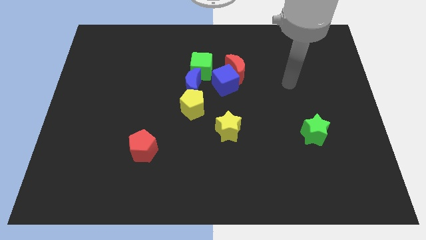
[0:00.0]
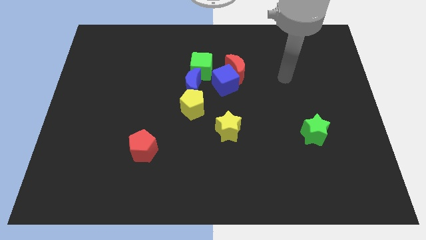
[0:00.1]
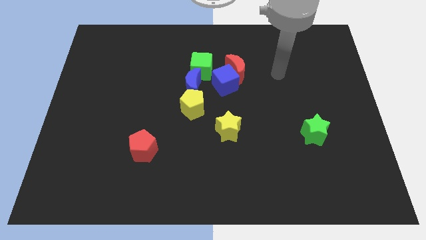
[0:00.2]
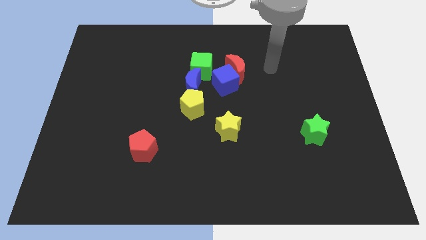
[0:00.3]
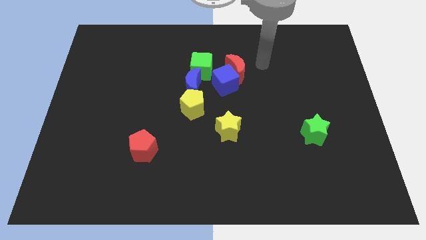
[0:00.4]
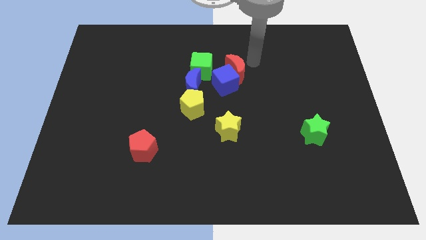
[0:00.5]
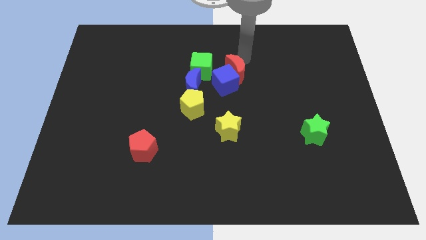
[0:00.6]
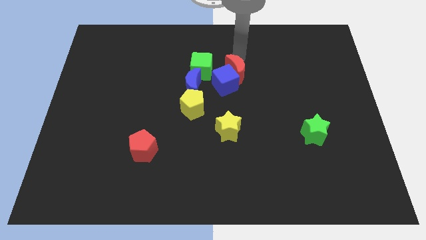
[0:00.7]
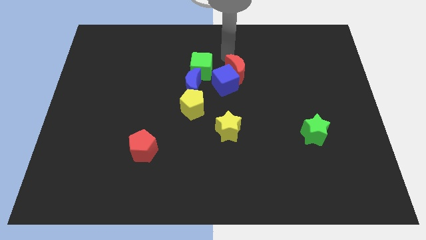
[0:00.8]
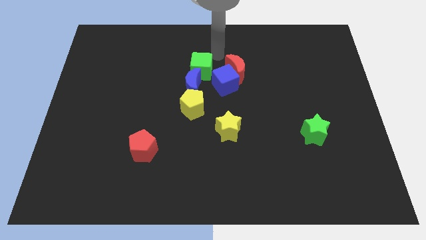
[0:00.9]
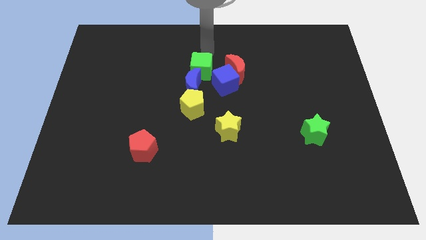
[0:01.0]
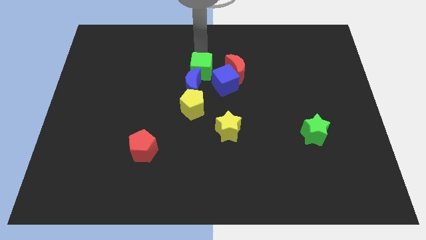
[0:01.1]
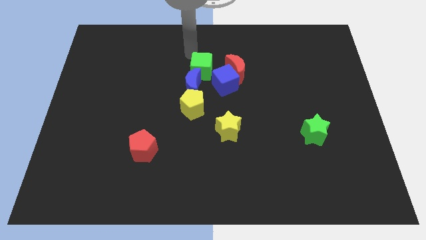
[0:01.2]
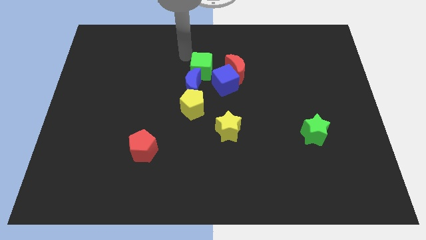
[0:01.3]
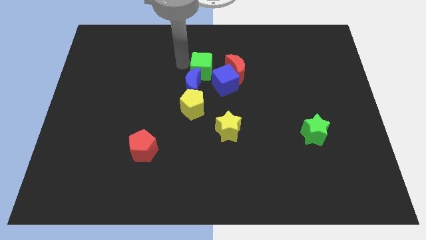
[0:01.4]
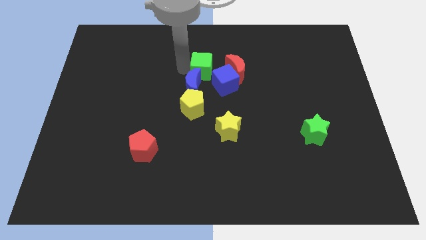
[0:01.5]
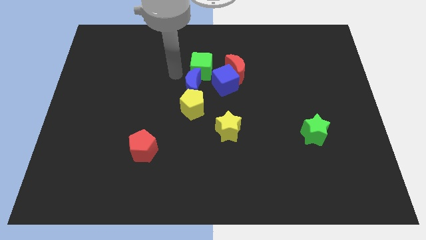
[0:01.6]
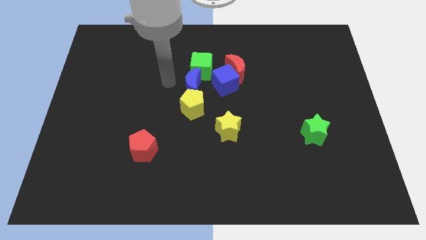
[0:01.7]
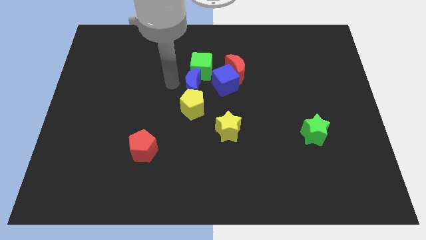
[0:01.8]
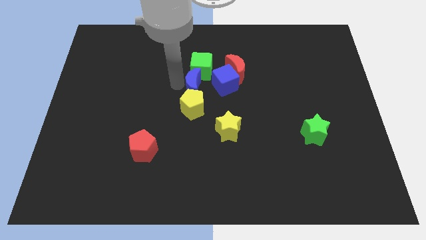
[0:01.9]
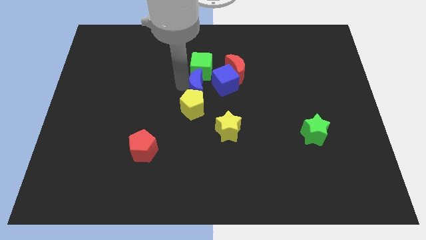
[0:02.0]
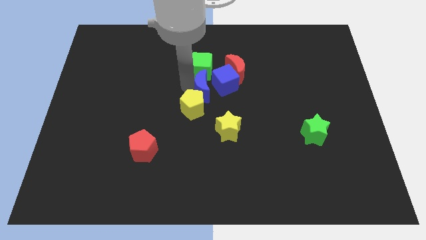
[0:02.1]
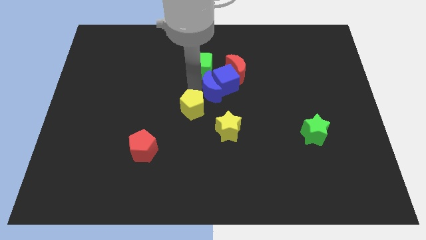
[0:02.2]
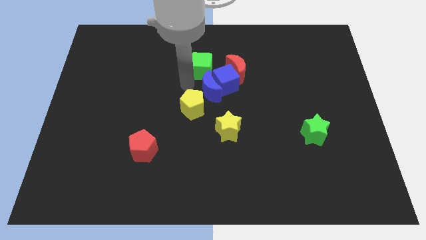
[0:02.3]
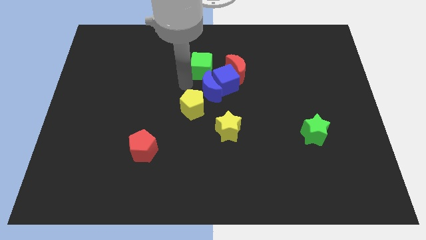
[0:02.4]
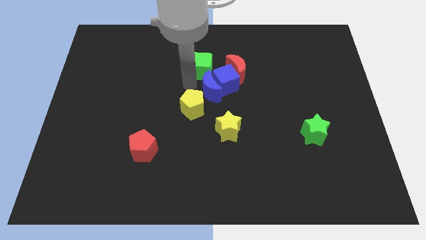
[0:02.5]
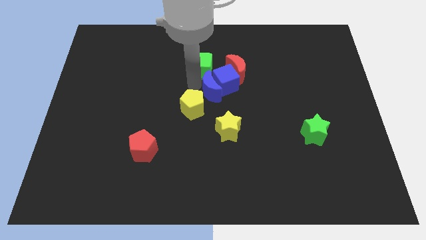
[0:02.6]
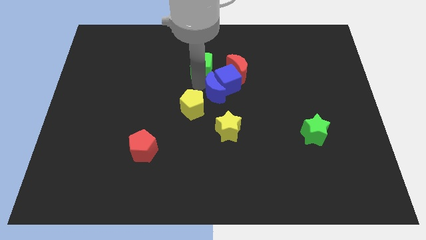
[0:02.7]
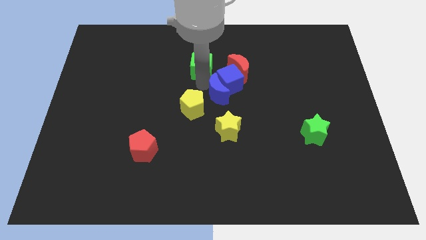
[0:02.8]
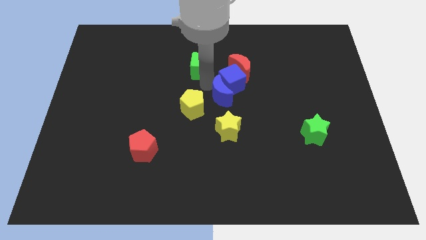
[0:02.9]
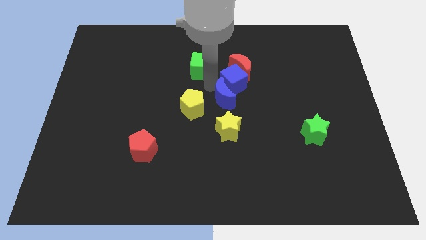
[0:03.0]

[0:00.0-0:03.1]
move the blue moon right somewhat

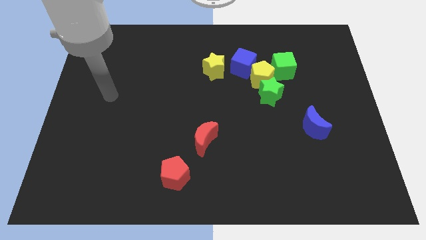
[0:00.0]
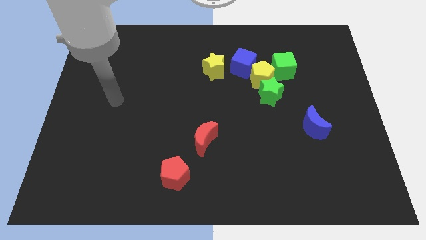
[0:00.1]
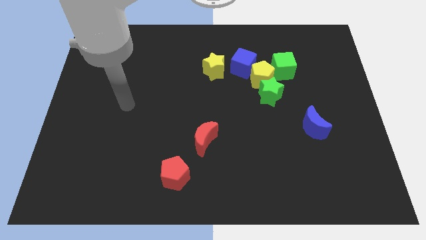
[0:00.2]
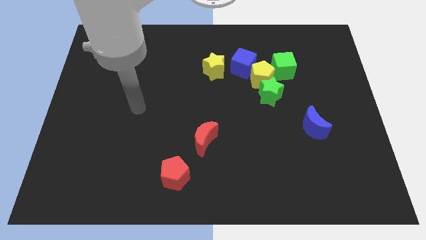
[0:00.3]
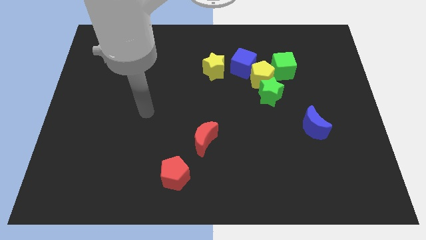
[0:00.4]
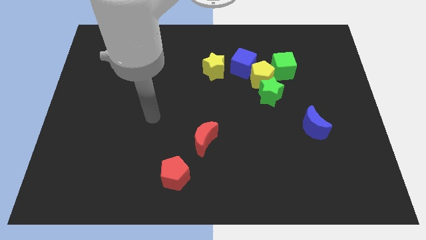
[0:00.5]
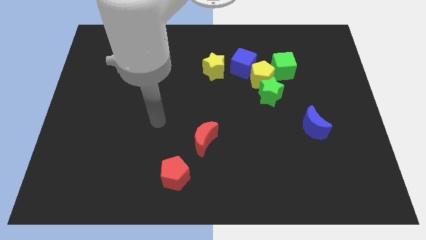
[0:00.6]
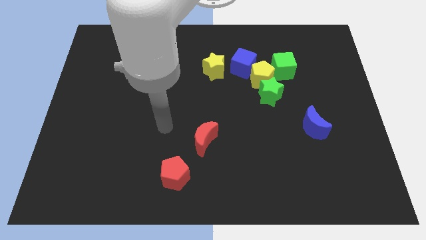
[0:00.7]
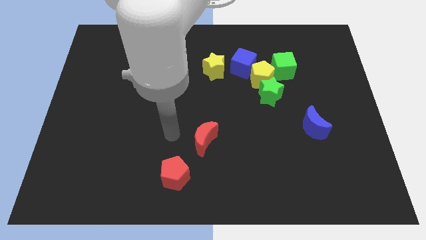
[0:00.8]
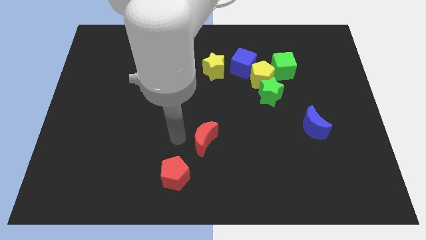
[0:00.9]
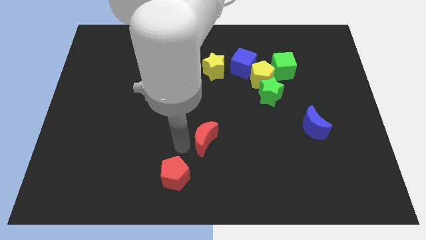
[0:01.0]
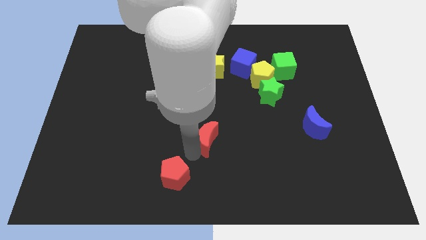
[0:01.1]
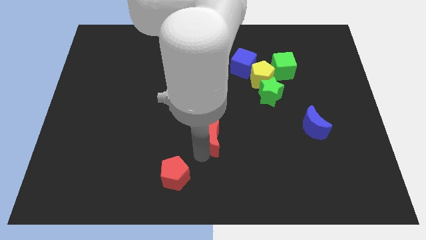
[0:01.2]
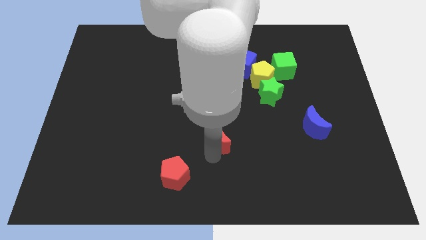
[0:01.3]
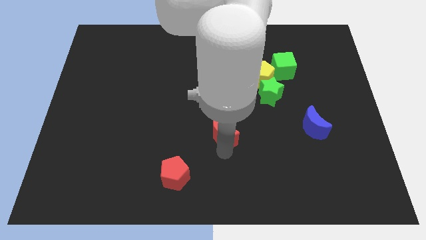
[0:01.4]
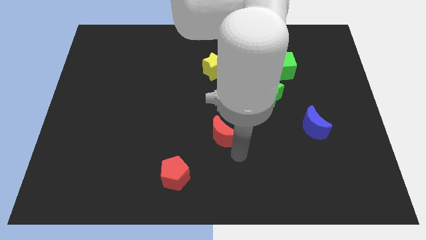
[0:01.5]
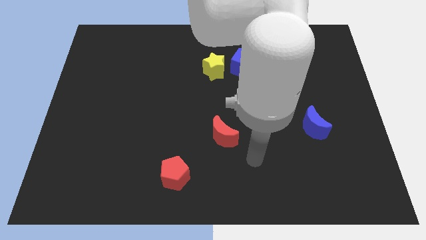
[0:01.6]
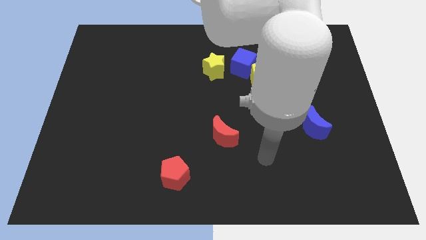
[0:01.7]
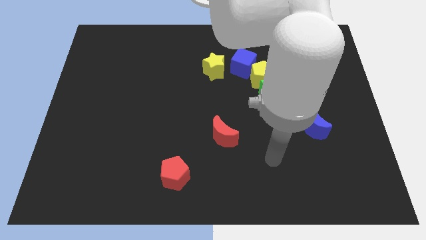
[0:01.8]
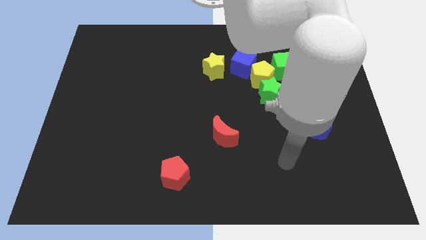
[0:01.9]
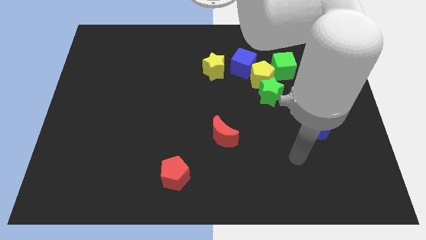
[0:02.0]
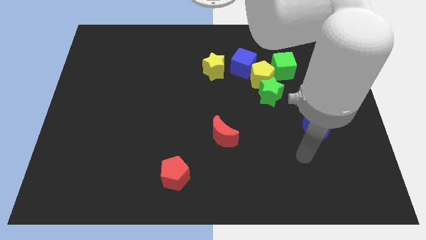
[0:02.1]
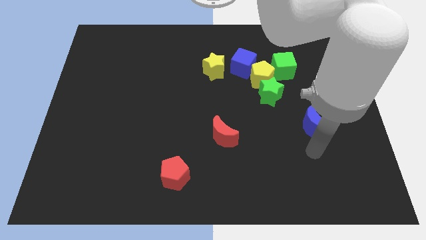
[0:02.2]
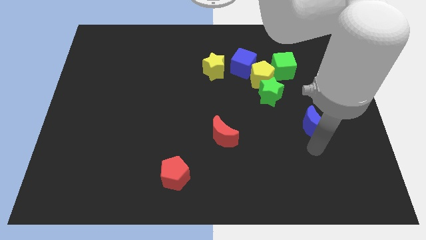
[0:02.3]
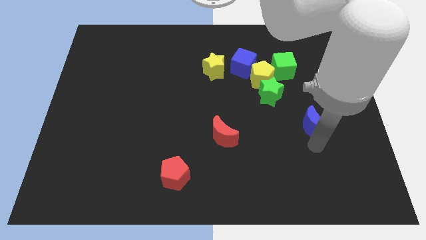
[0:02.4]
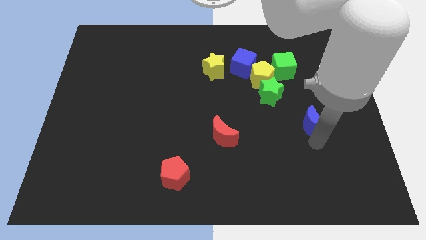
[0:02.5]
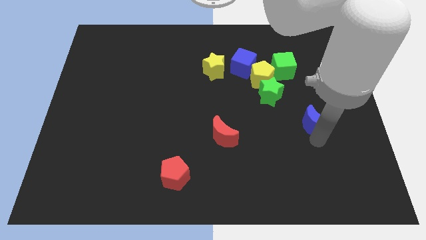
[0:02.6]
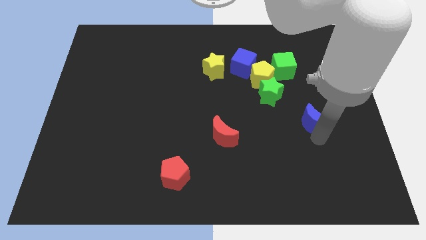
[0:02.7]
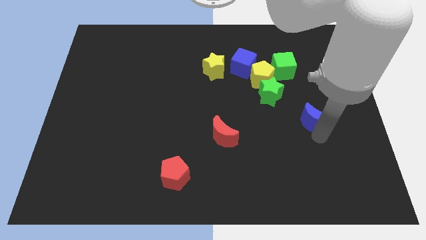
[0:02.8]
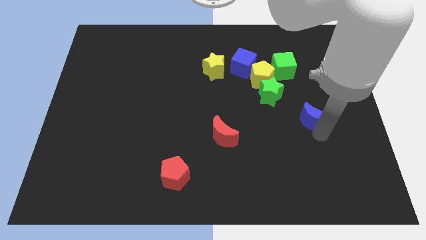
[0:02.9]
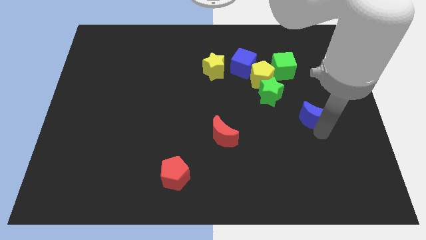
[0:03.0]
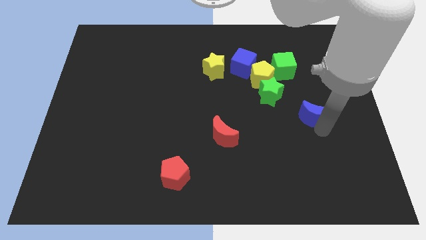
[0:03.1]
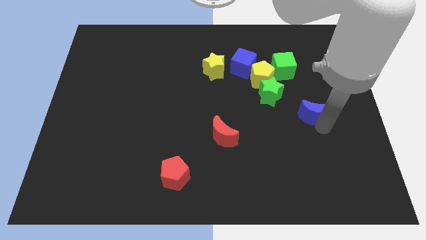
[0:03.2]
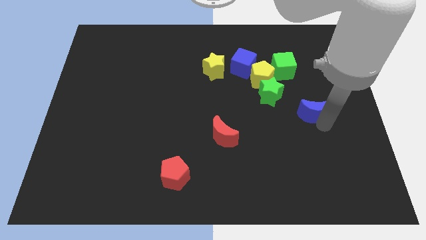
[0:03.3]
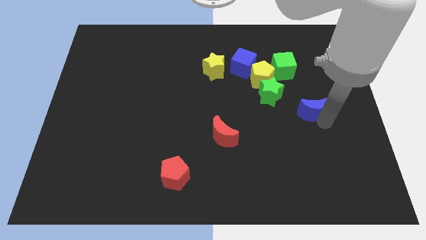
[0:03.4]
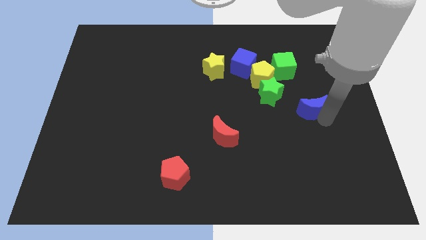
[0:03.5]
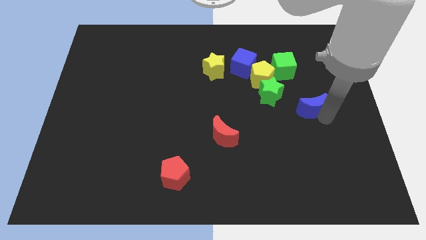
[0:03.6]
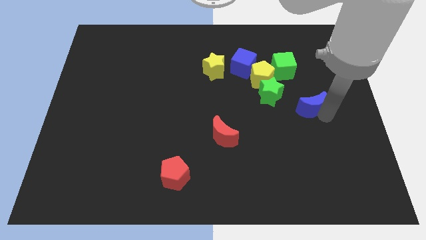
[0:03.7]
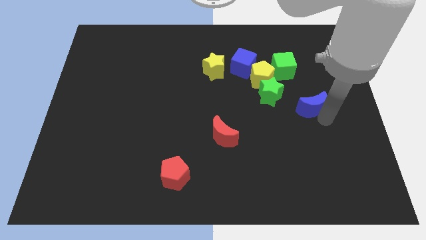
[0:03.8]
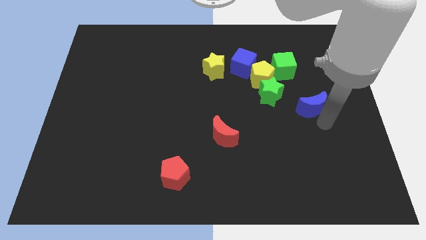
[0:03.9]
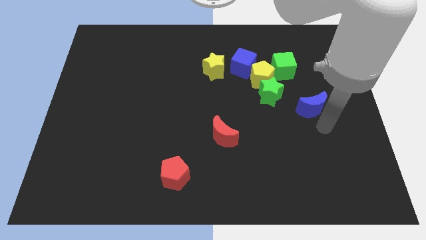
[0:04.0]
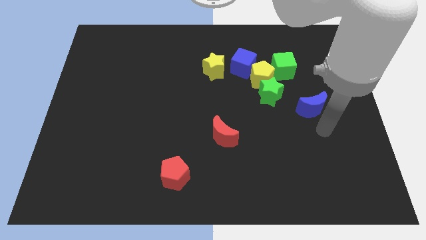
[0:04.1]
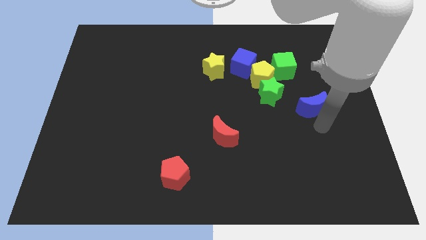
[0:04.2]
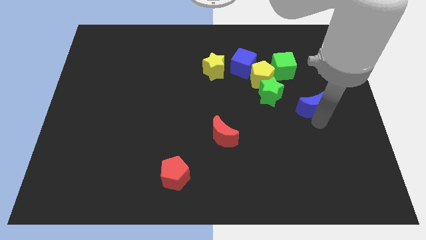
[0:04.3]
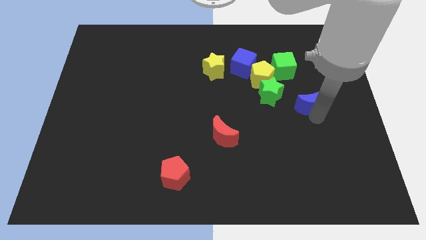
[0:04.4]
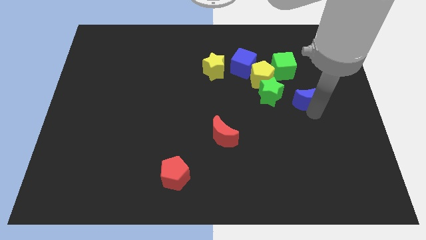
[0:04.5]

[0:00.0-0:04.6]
slightly slide the blue moon upwards
